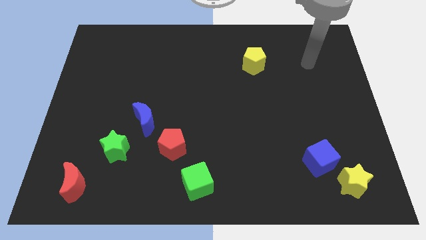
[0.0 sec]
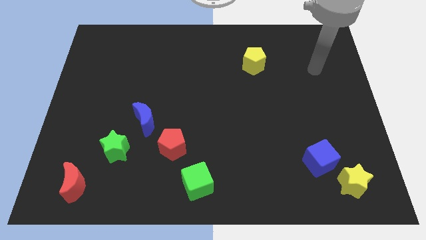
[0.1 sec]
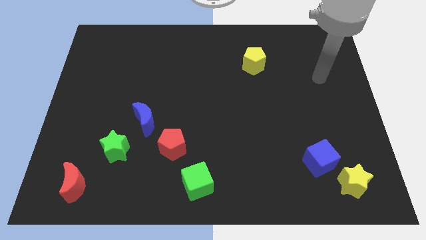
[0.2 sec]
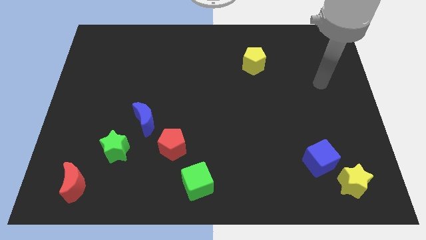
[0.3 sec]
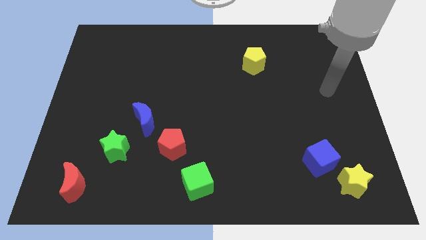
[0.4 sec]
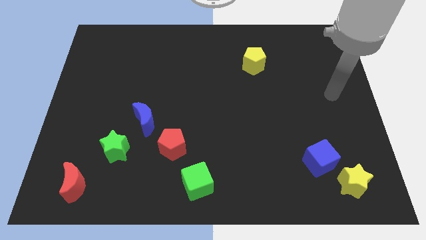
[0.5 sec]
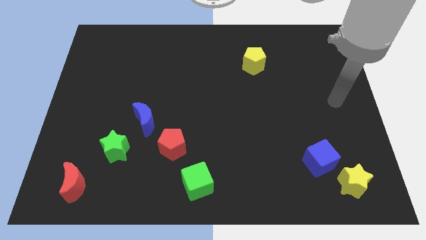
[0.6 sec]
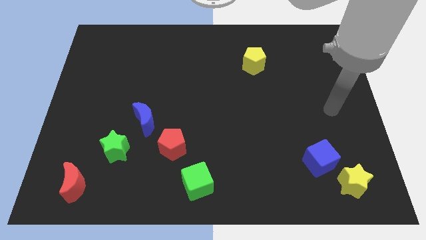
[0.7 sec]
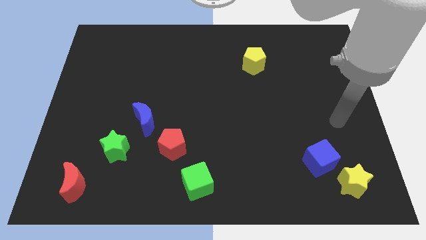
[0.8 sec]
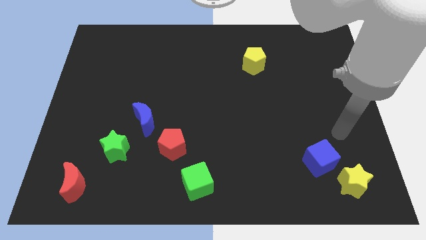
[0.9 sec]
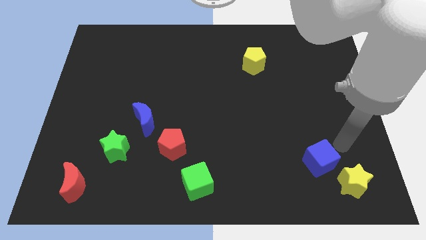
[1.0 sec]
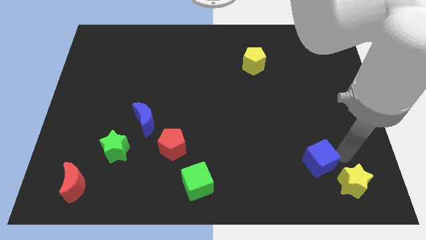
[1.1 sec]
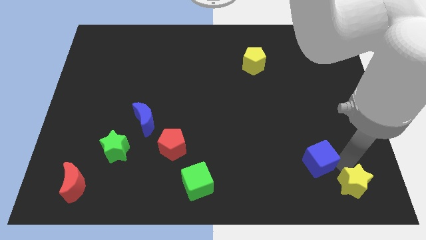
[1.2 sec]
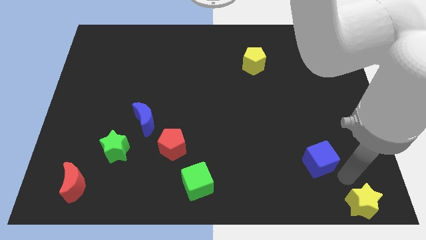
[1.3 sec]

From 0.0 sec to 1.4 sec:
move the blue cube away from the yellow star

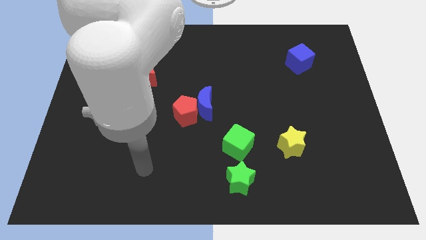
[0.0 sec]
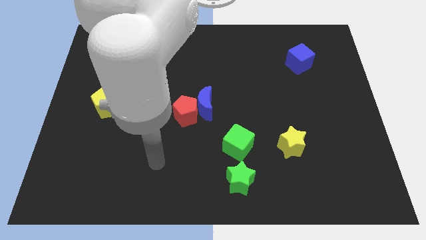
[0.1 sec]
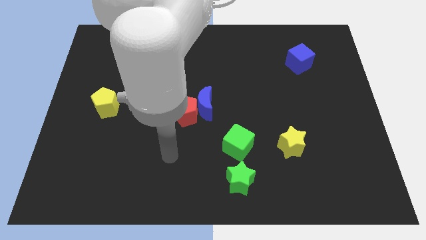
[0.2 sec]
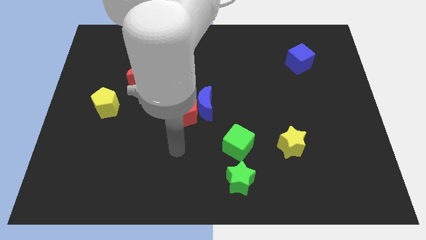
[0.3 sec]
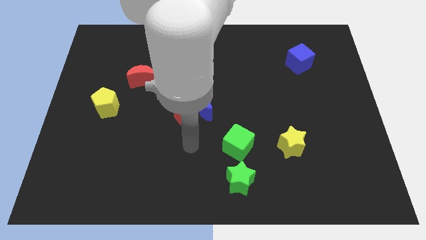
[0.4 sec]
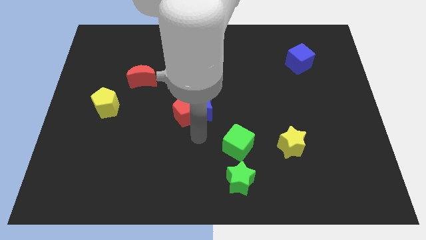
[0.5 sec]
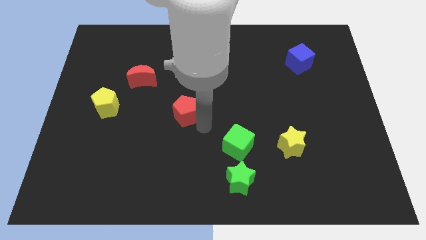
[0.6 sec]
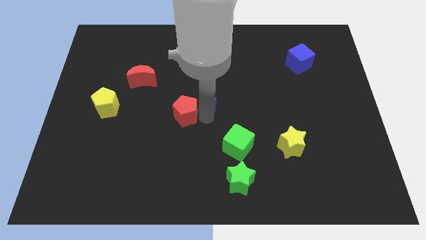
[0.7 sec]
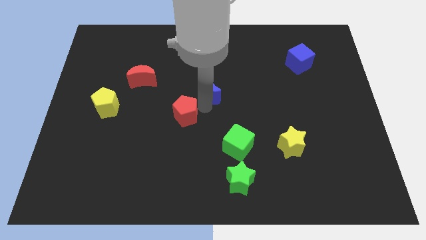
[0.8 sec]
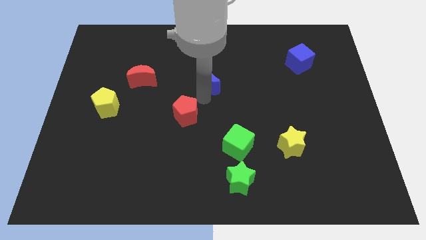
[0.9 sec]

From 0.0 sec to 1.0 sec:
separate the red pentagon from the blue moon

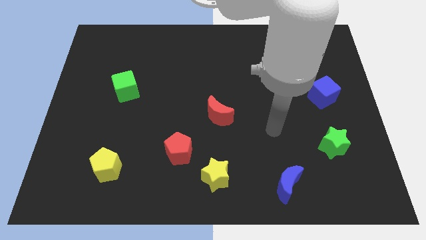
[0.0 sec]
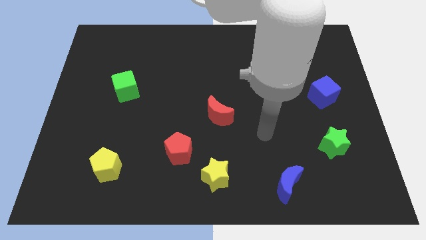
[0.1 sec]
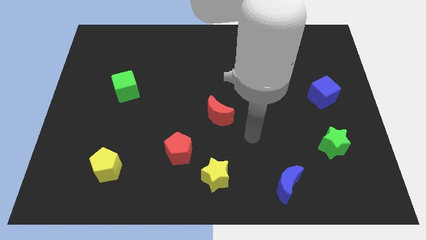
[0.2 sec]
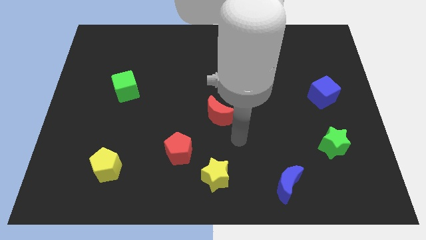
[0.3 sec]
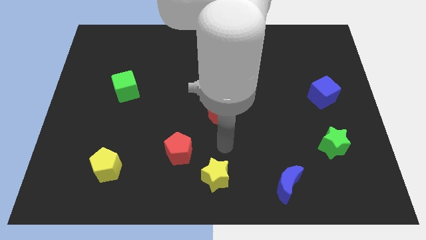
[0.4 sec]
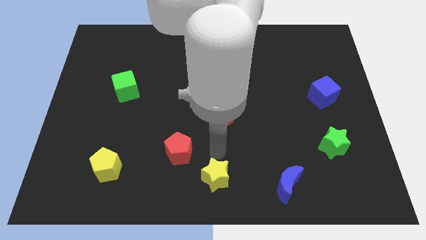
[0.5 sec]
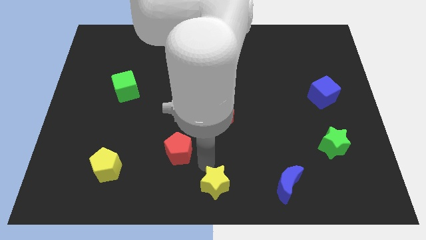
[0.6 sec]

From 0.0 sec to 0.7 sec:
pull the red pentagon apart from the yellow star

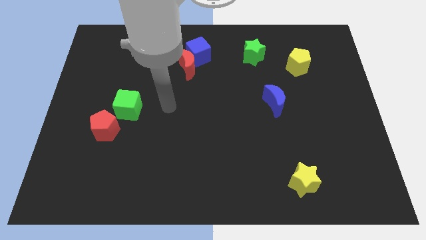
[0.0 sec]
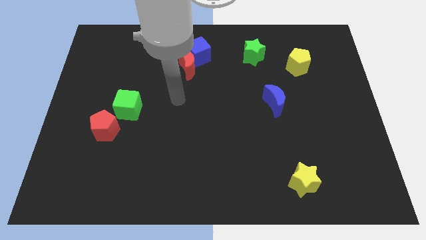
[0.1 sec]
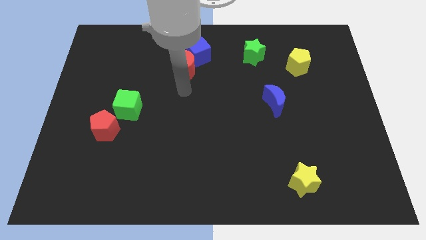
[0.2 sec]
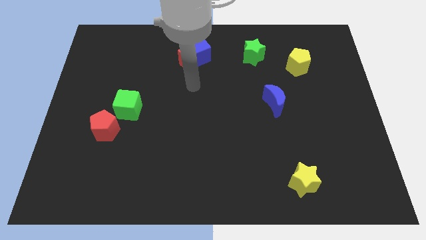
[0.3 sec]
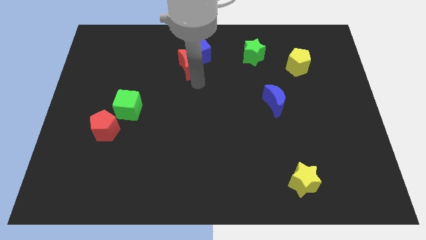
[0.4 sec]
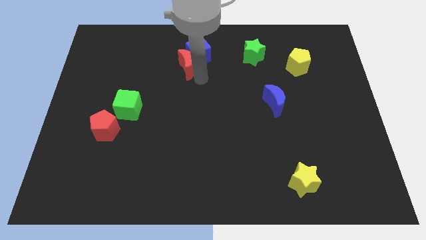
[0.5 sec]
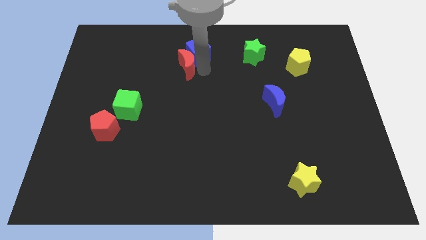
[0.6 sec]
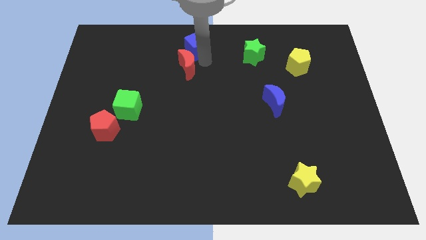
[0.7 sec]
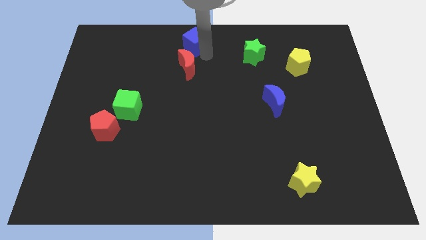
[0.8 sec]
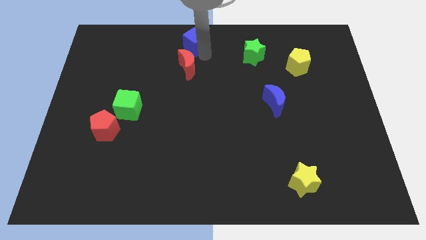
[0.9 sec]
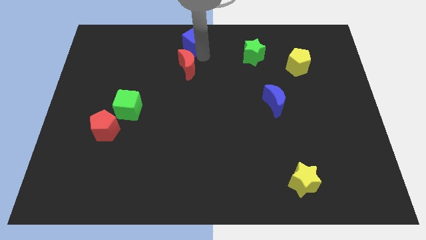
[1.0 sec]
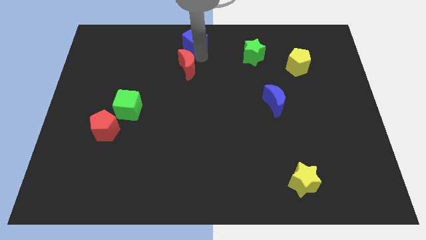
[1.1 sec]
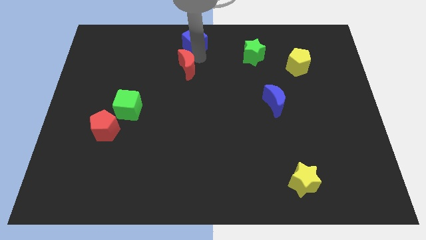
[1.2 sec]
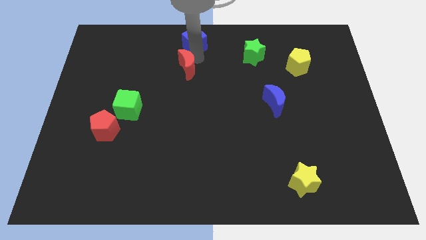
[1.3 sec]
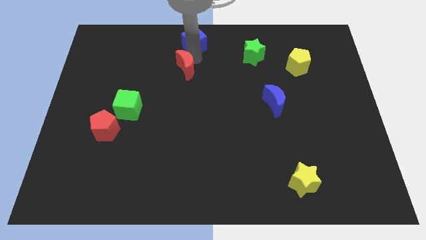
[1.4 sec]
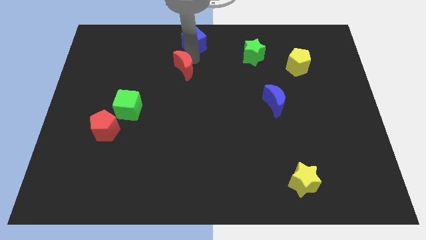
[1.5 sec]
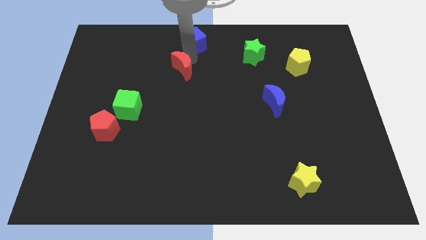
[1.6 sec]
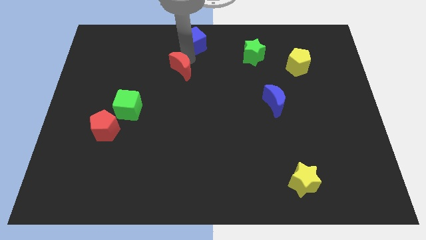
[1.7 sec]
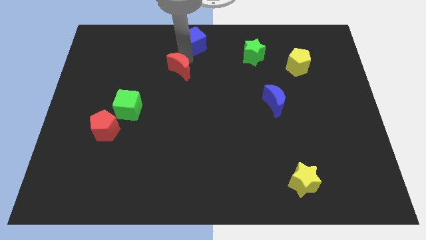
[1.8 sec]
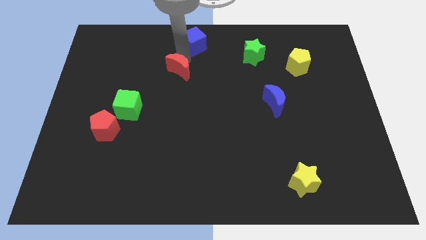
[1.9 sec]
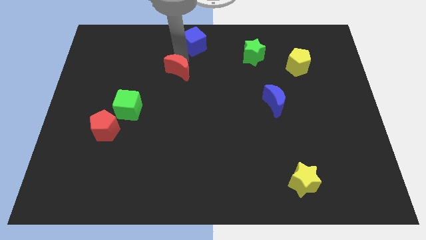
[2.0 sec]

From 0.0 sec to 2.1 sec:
move the red moon away from the blue cube

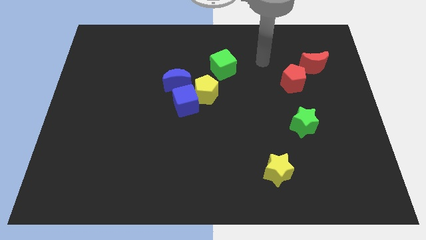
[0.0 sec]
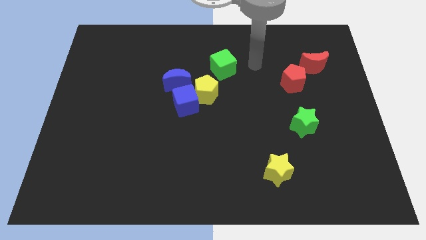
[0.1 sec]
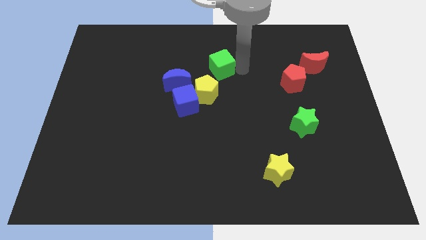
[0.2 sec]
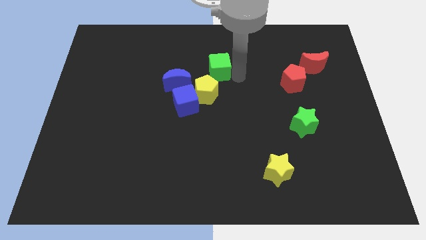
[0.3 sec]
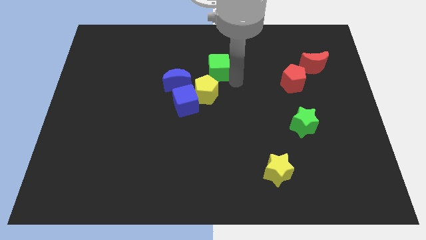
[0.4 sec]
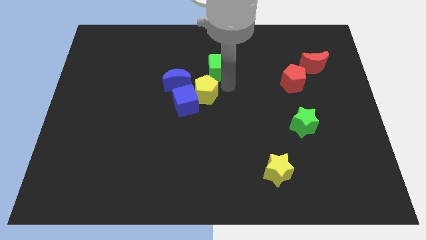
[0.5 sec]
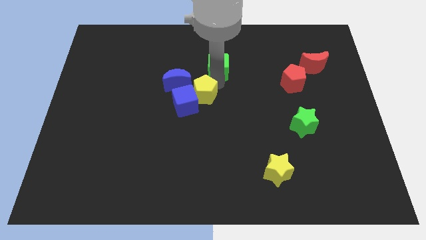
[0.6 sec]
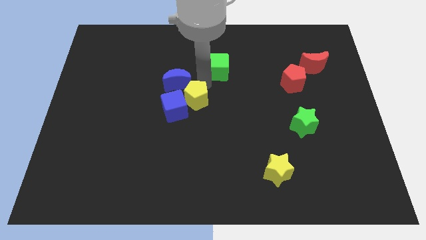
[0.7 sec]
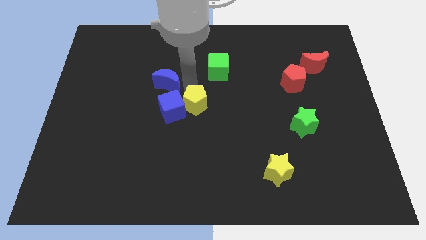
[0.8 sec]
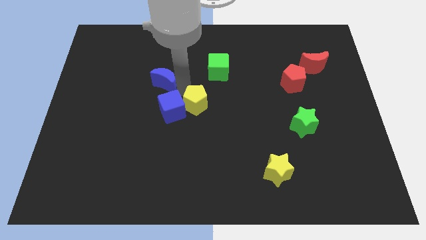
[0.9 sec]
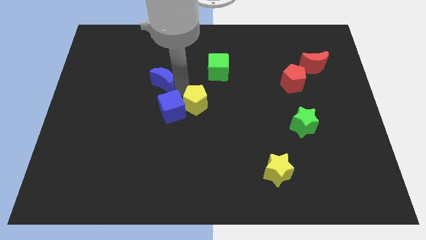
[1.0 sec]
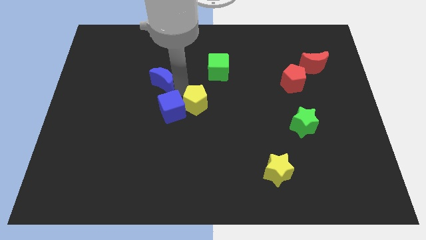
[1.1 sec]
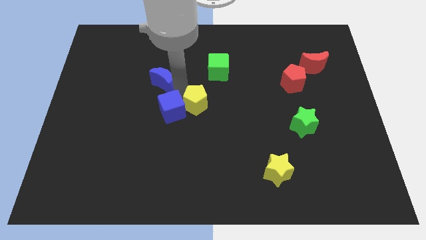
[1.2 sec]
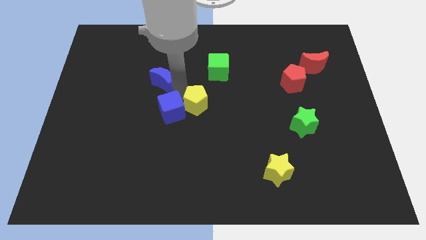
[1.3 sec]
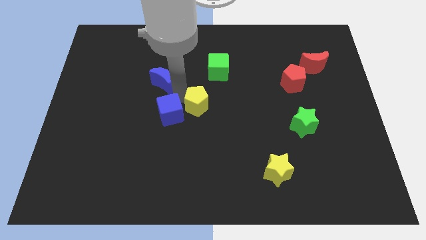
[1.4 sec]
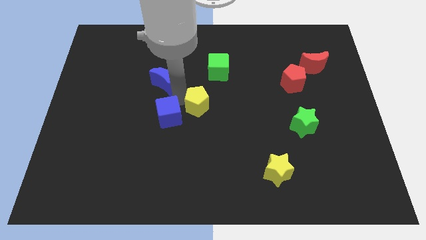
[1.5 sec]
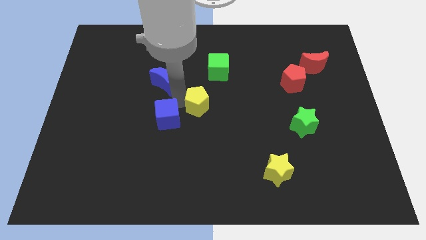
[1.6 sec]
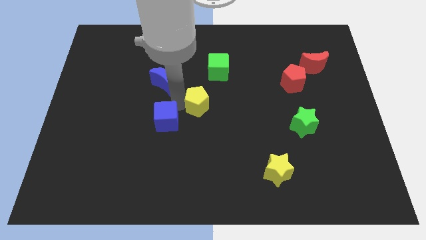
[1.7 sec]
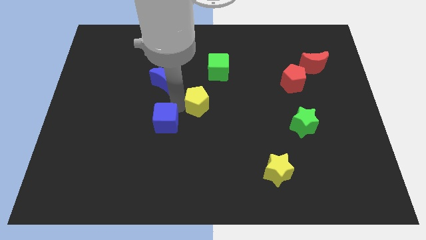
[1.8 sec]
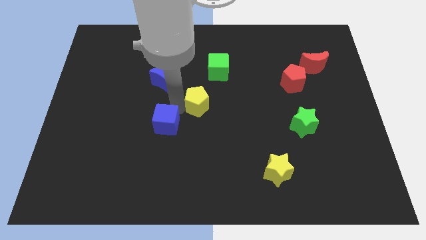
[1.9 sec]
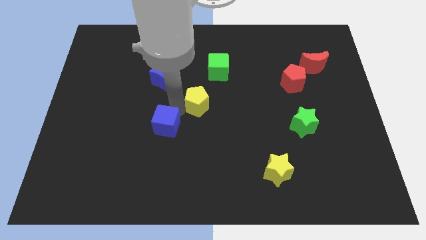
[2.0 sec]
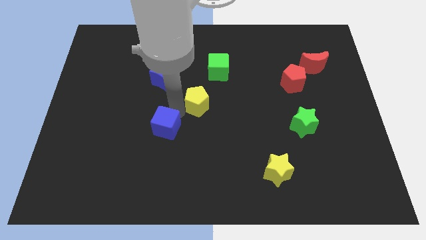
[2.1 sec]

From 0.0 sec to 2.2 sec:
separate the blue cube from the yellow pentagon and blue moon

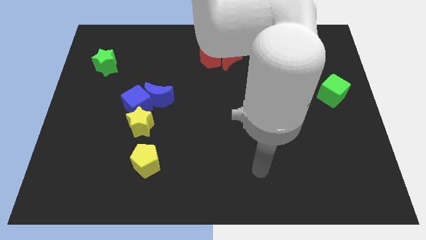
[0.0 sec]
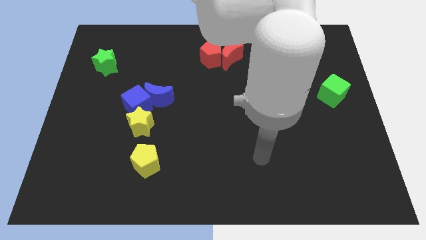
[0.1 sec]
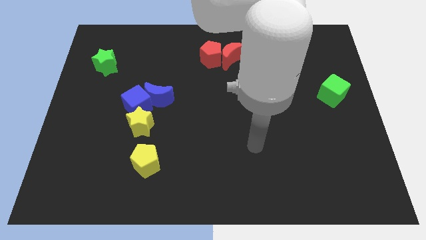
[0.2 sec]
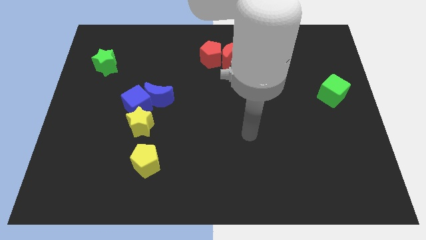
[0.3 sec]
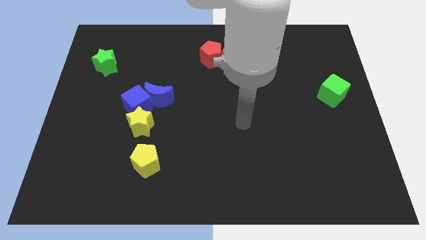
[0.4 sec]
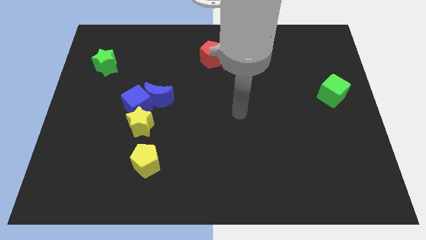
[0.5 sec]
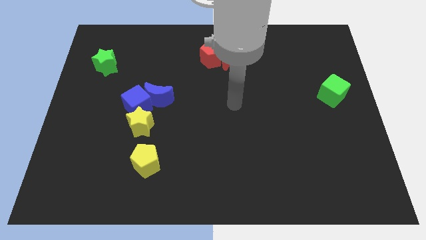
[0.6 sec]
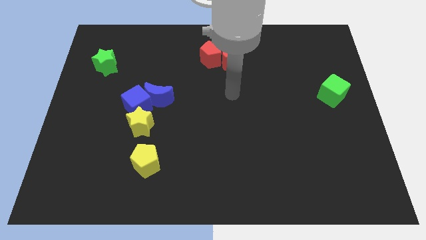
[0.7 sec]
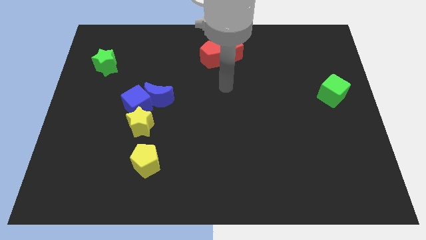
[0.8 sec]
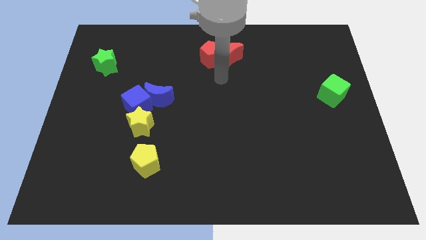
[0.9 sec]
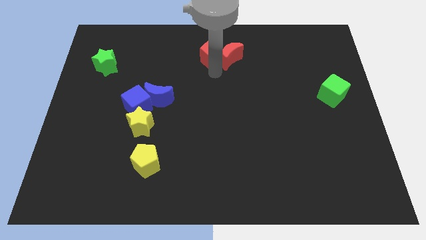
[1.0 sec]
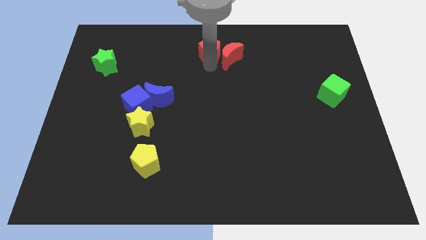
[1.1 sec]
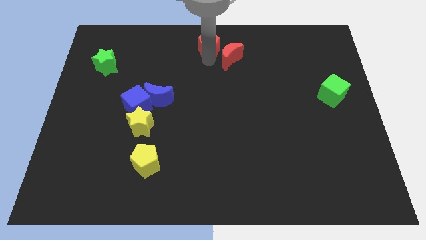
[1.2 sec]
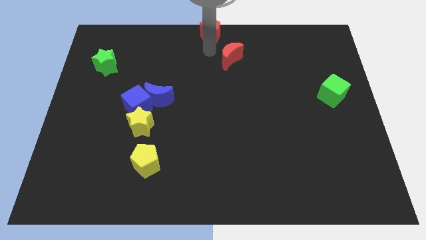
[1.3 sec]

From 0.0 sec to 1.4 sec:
move the red moon away from the red pentagon

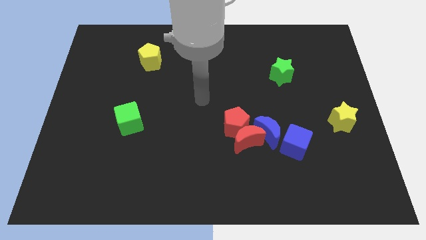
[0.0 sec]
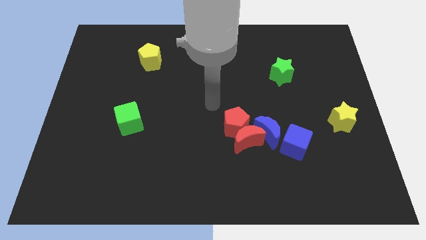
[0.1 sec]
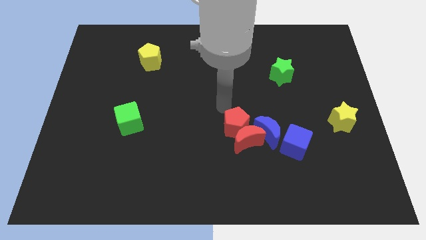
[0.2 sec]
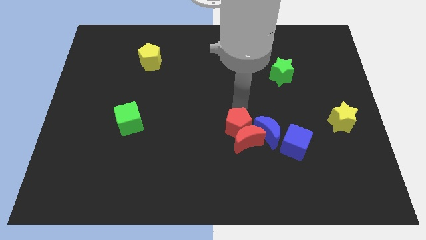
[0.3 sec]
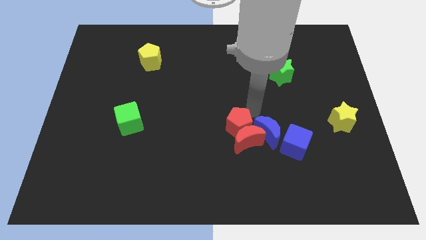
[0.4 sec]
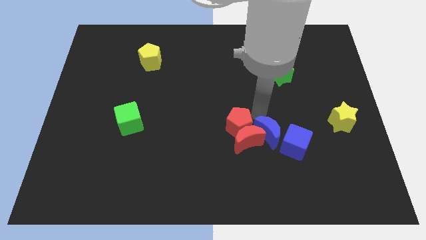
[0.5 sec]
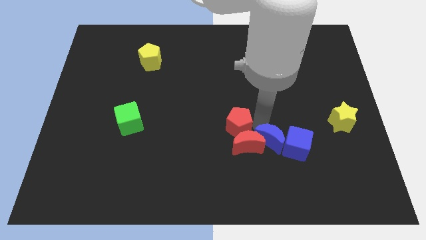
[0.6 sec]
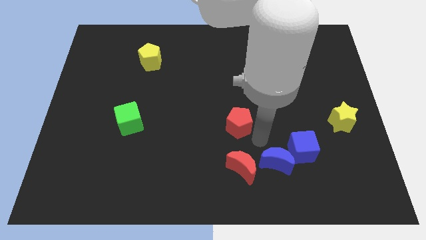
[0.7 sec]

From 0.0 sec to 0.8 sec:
pull the red pentagon apart from the red moon and blue moon
